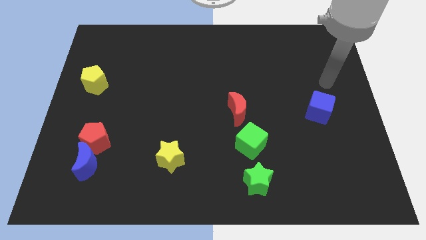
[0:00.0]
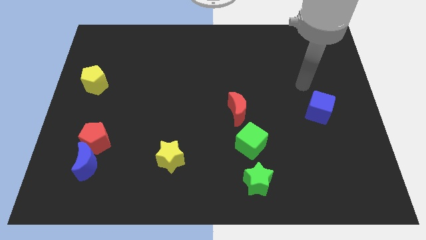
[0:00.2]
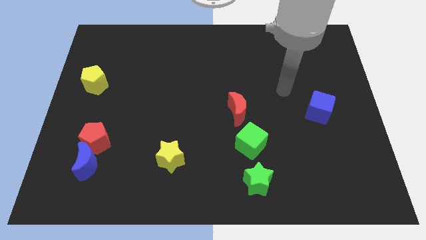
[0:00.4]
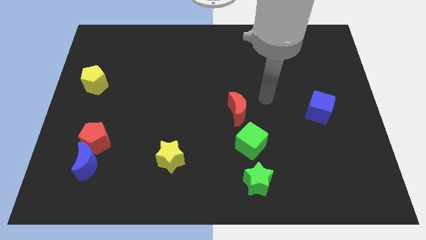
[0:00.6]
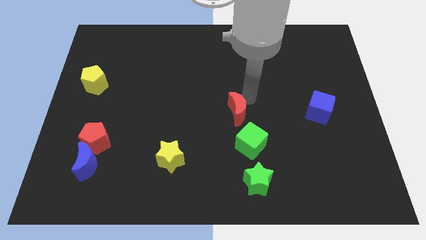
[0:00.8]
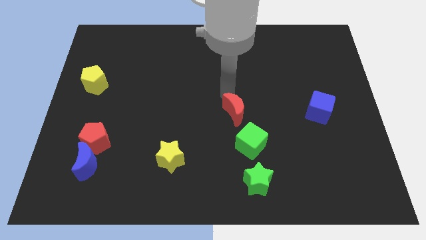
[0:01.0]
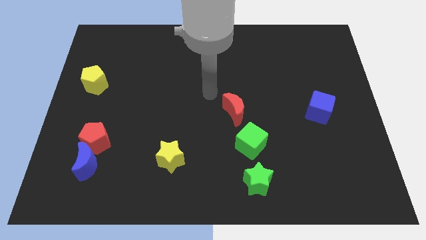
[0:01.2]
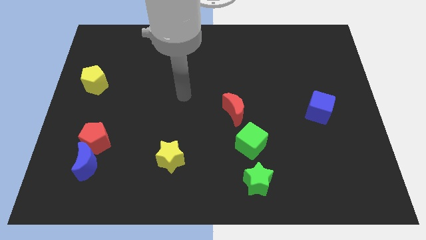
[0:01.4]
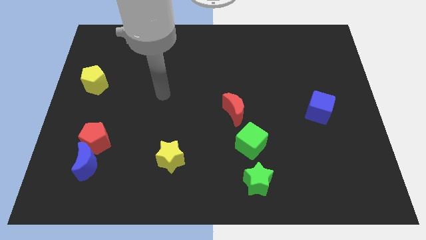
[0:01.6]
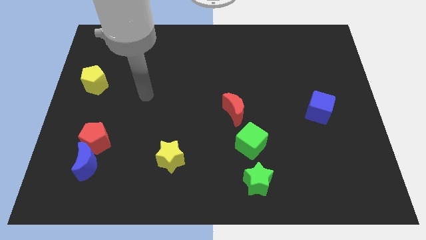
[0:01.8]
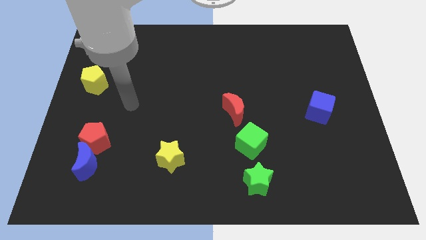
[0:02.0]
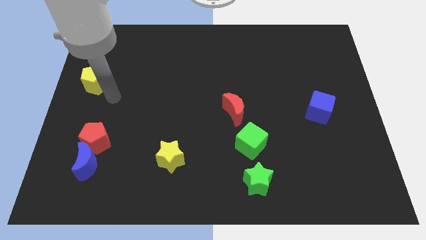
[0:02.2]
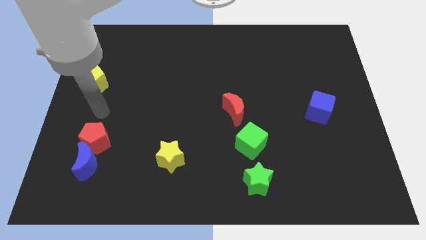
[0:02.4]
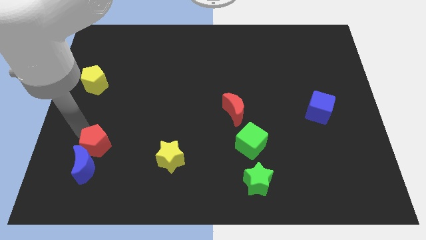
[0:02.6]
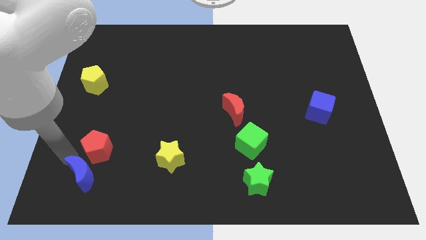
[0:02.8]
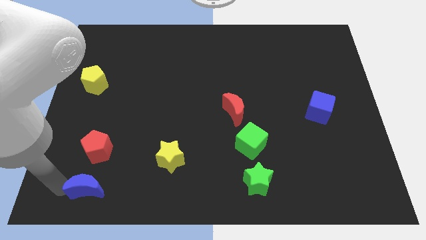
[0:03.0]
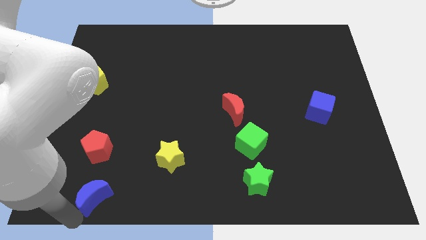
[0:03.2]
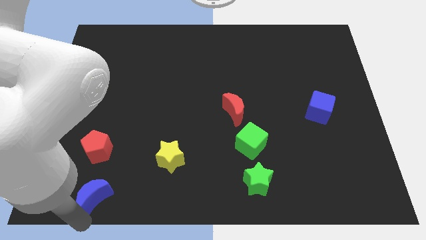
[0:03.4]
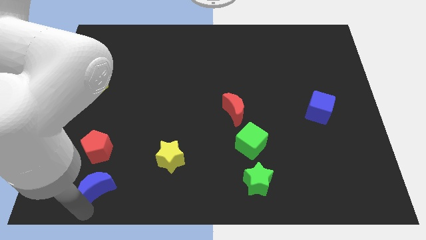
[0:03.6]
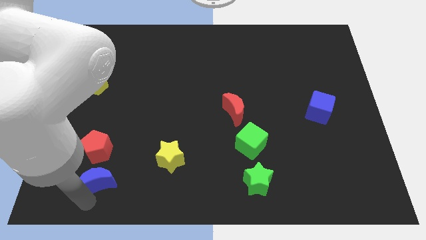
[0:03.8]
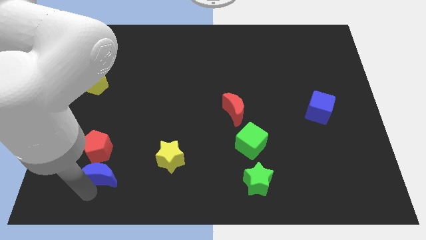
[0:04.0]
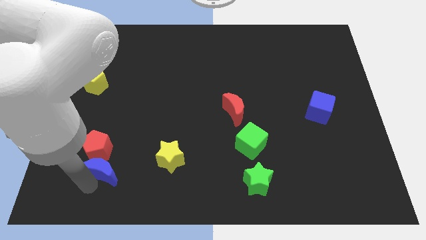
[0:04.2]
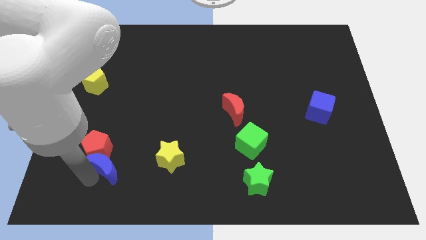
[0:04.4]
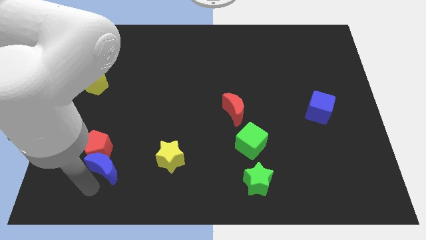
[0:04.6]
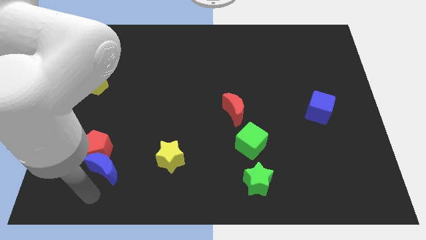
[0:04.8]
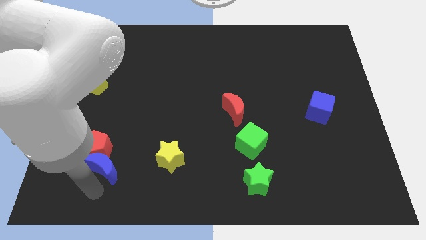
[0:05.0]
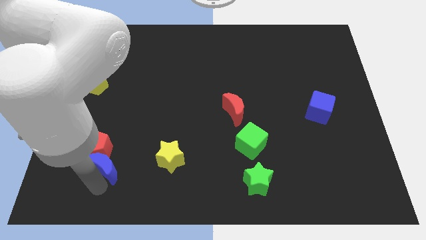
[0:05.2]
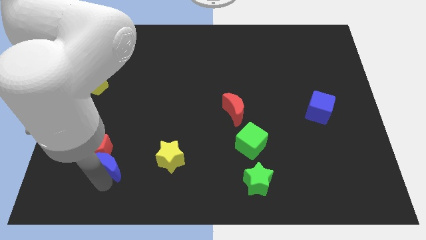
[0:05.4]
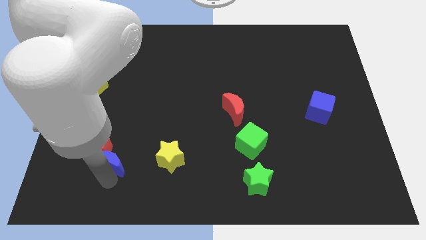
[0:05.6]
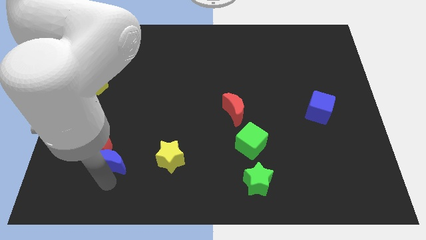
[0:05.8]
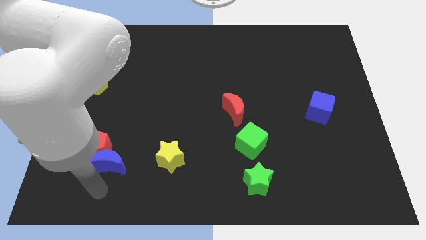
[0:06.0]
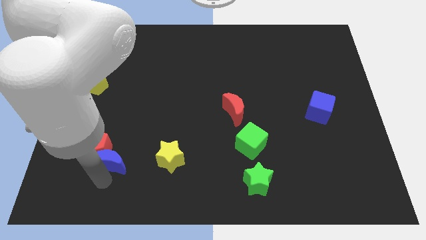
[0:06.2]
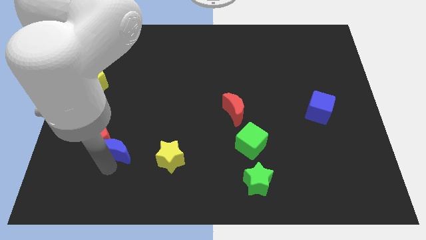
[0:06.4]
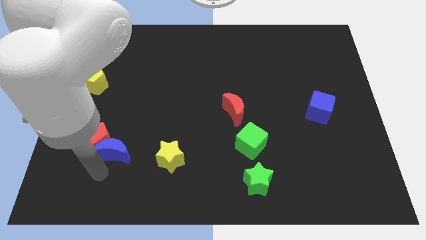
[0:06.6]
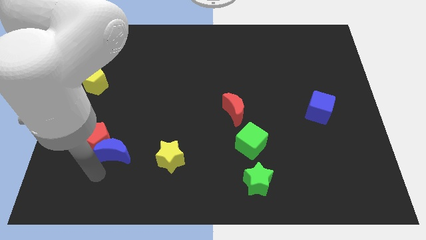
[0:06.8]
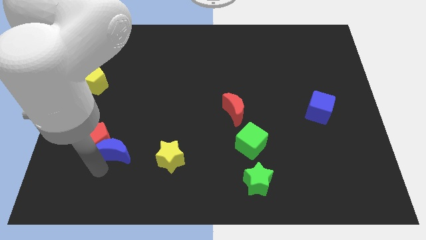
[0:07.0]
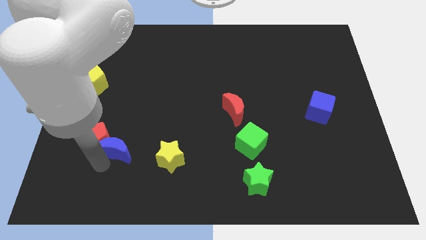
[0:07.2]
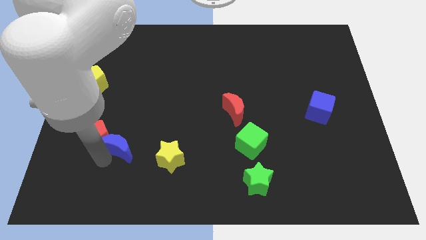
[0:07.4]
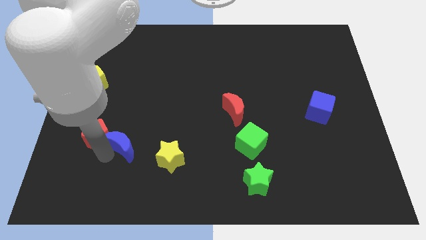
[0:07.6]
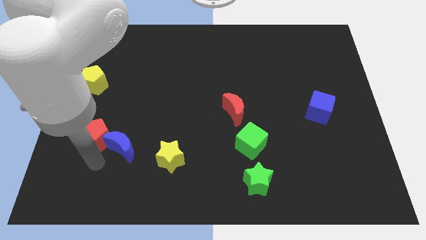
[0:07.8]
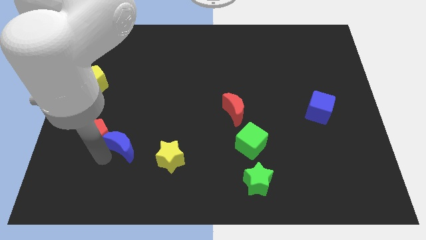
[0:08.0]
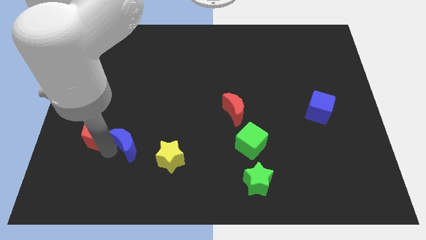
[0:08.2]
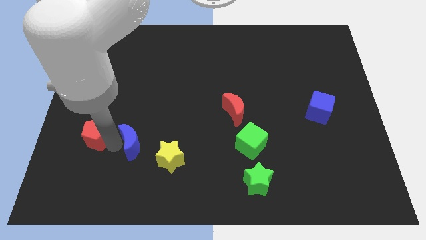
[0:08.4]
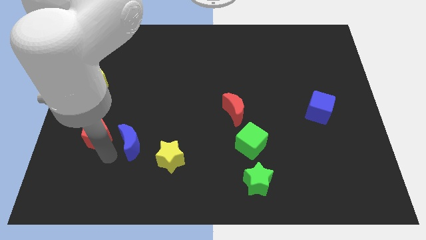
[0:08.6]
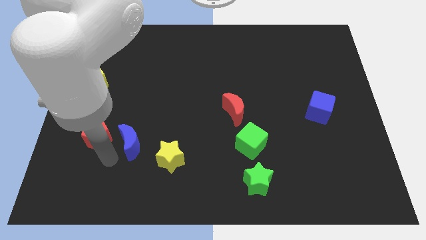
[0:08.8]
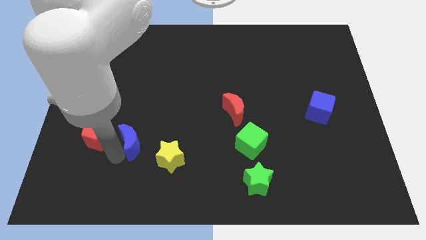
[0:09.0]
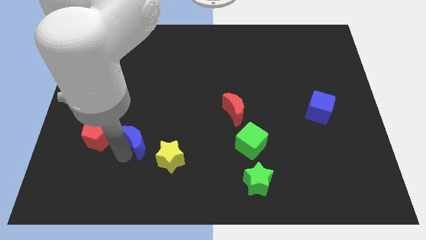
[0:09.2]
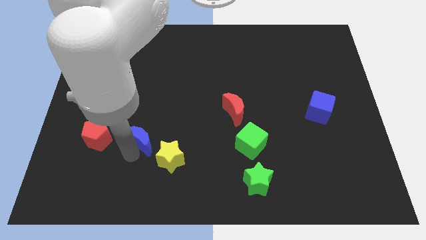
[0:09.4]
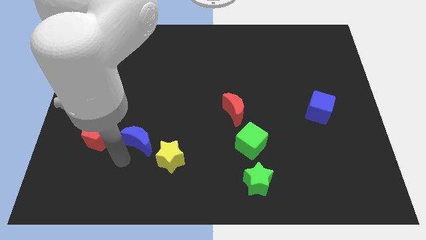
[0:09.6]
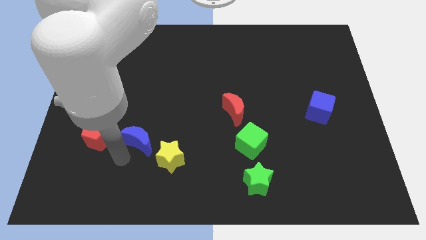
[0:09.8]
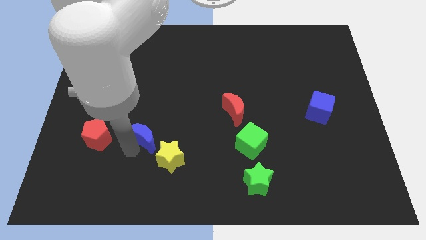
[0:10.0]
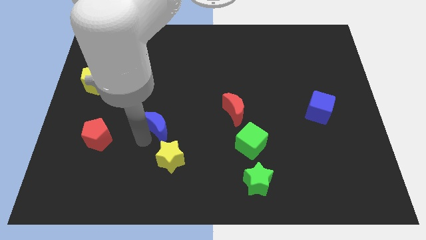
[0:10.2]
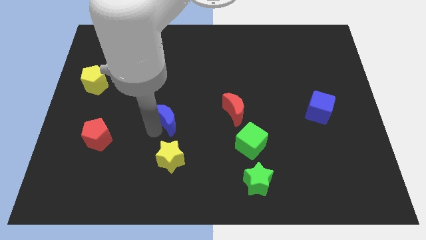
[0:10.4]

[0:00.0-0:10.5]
move the blue moon to the left of the red moon
